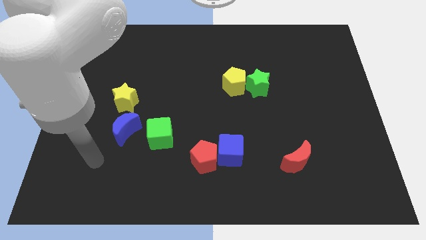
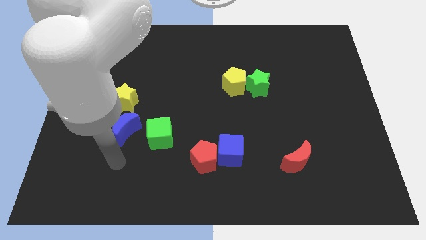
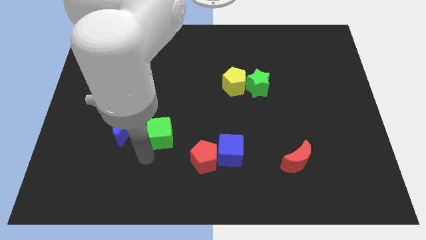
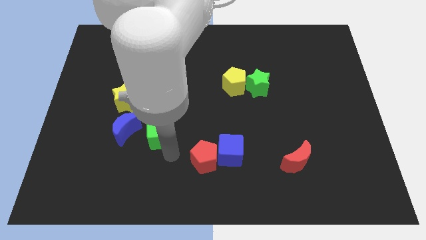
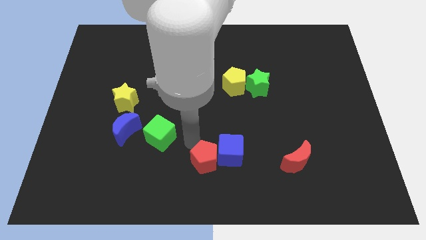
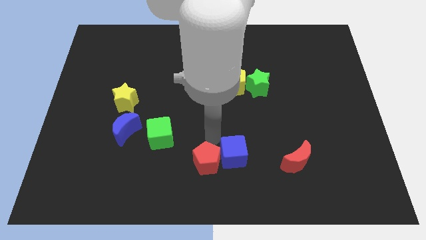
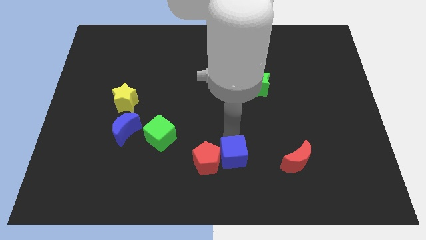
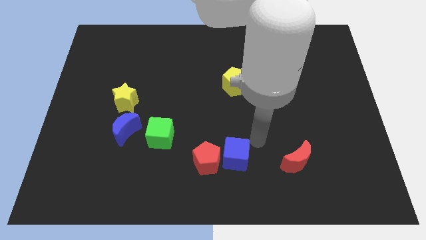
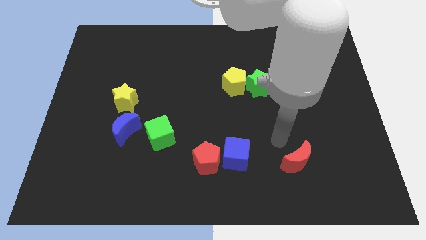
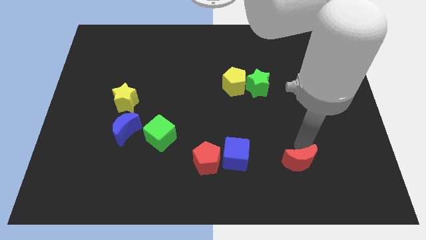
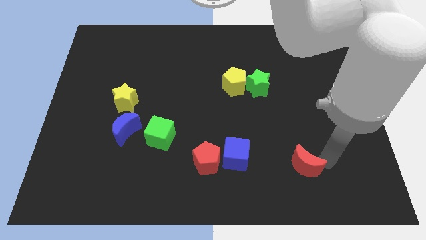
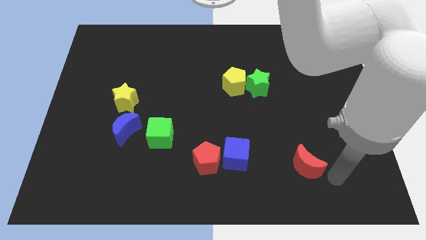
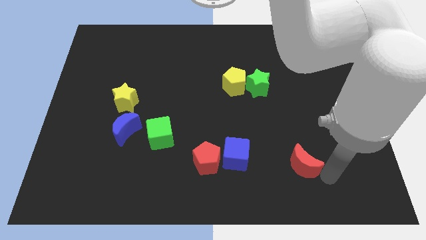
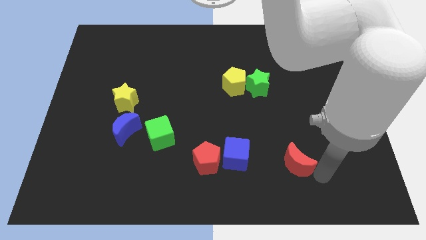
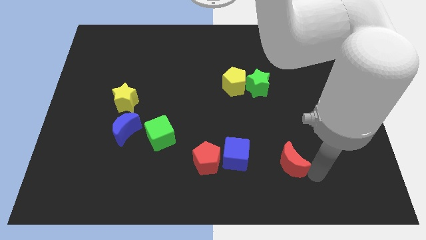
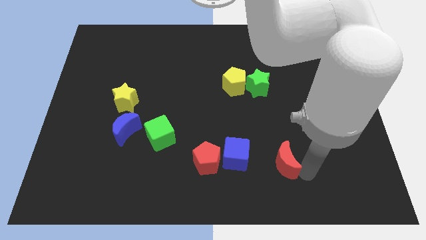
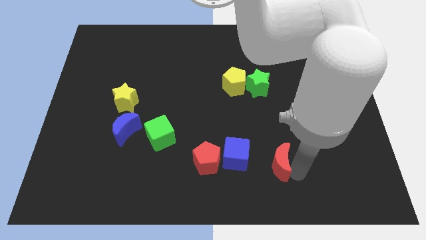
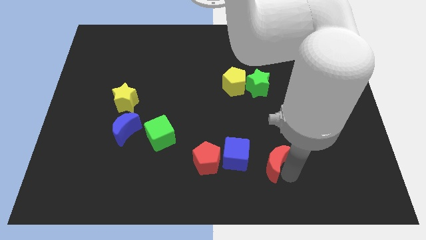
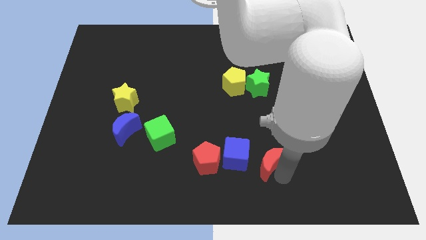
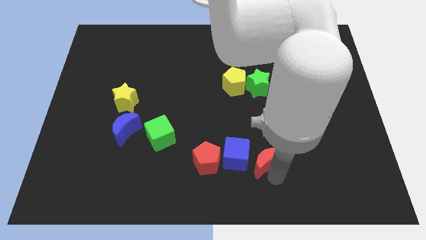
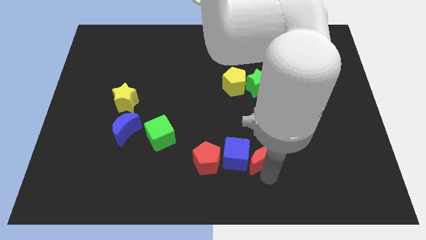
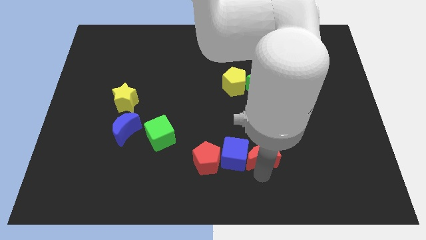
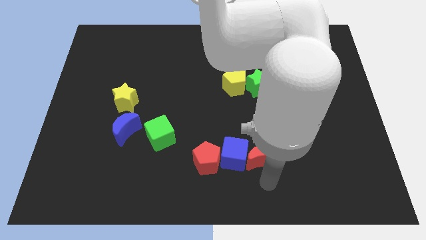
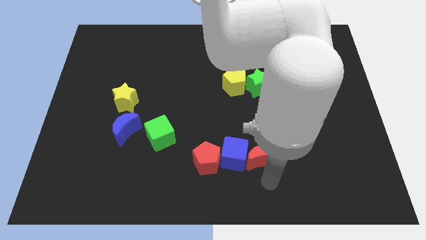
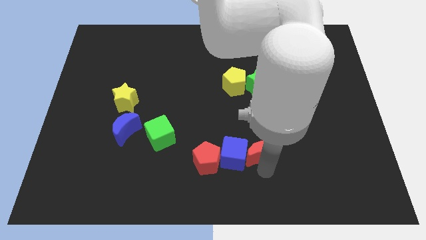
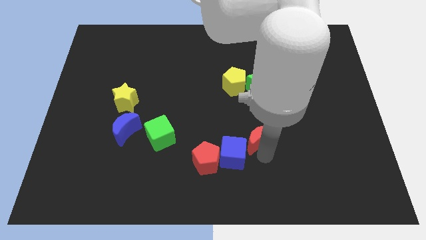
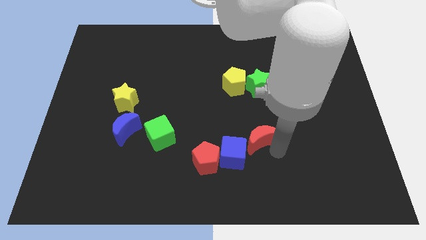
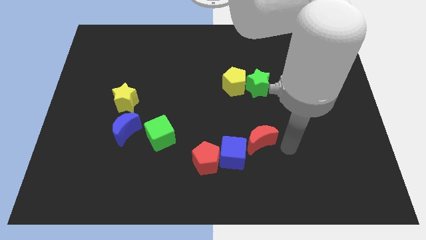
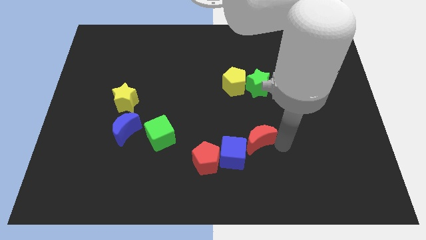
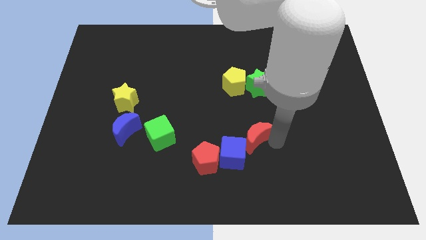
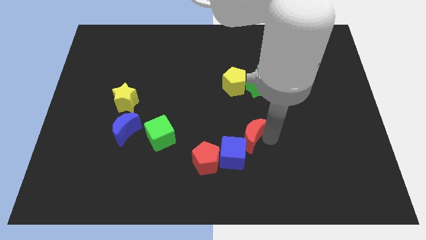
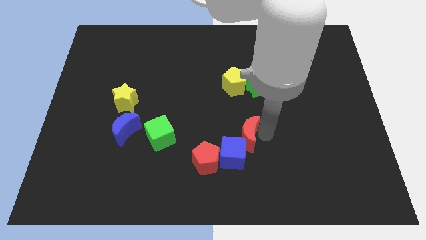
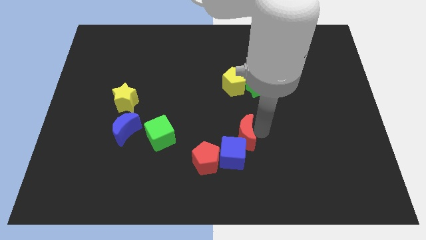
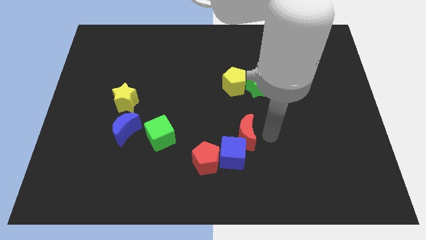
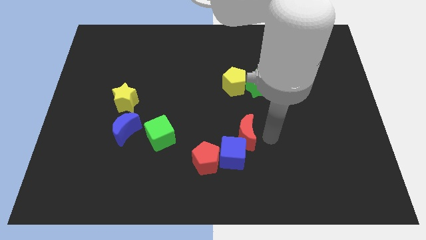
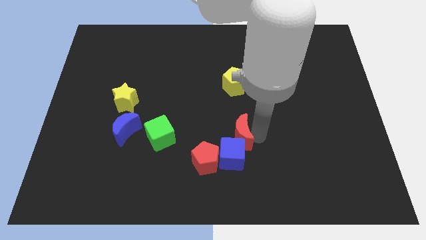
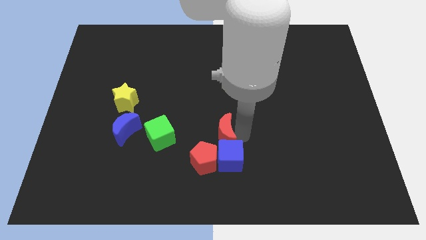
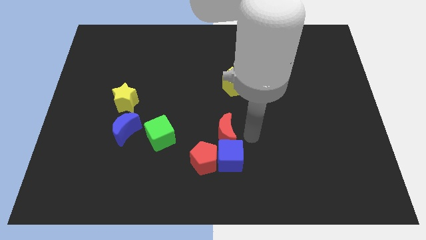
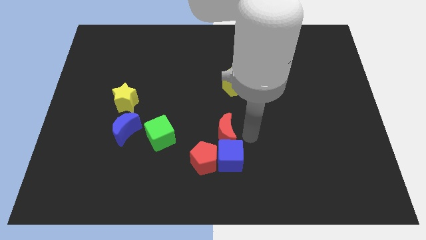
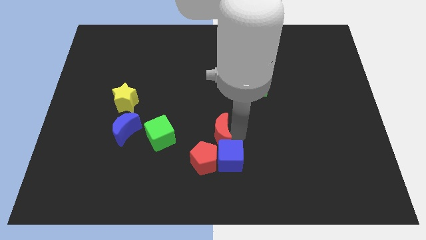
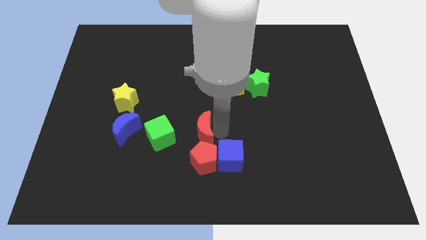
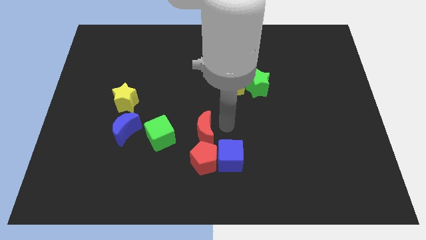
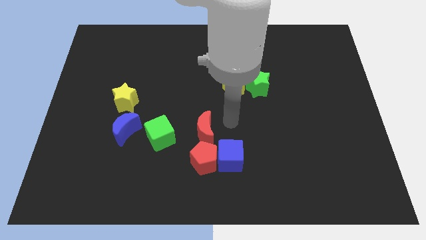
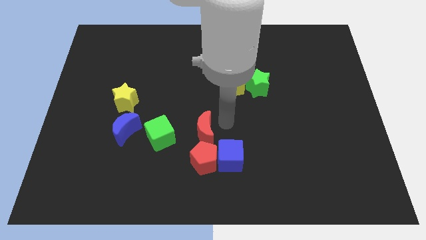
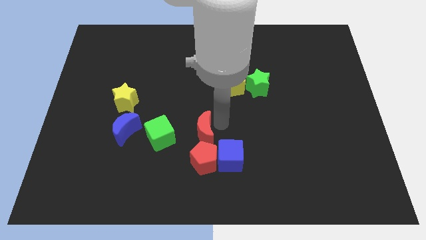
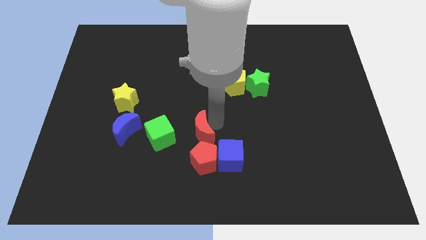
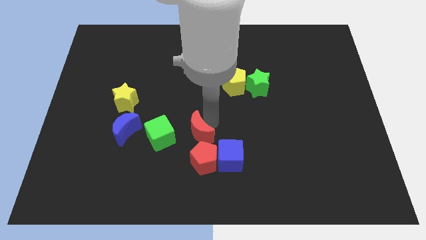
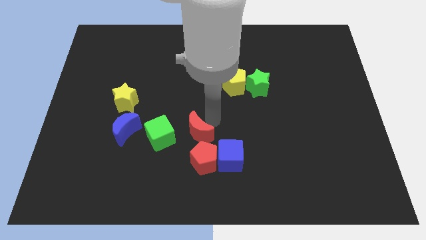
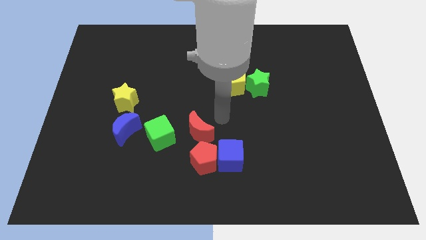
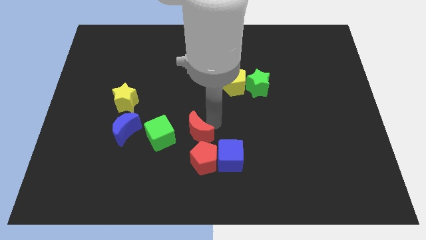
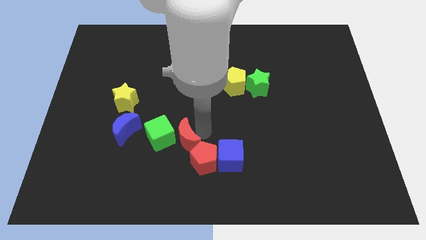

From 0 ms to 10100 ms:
move the red moon close to the green cube

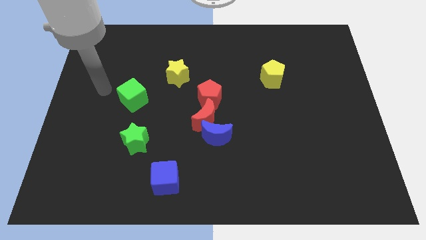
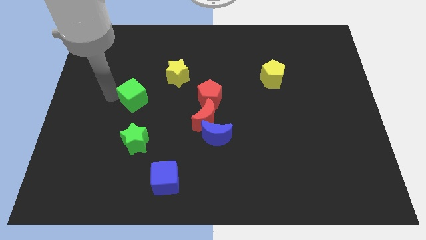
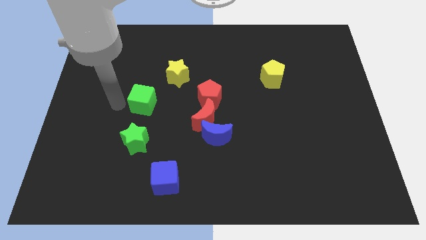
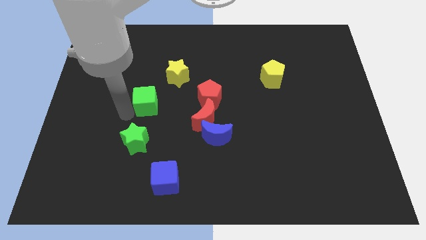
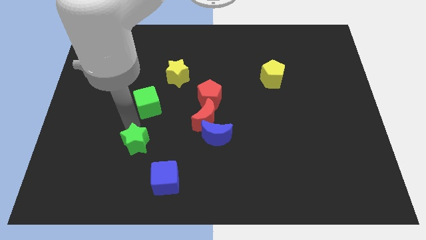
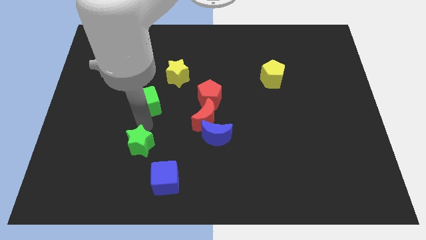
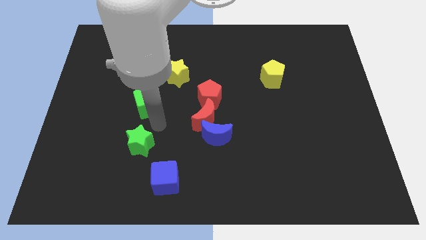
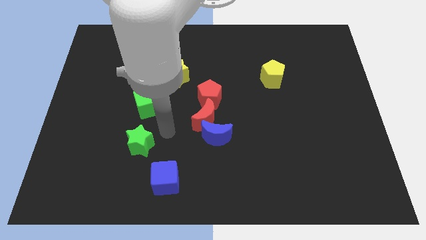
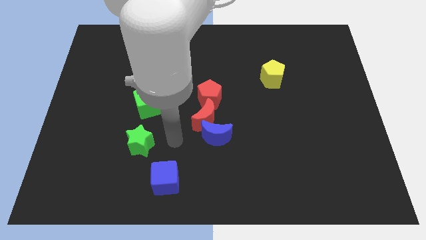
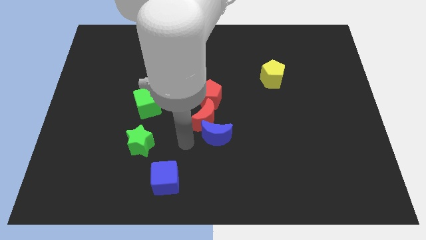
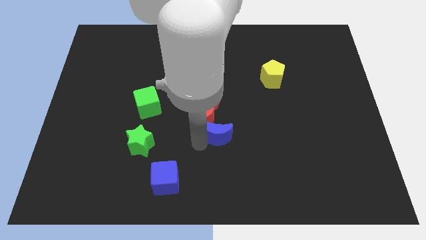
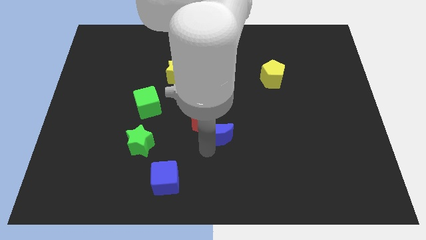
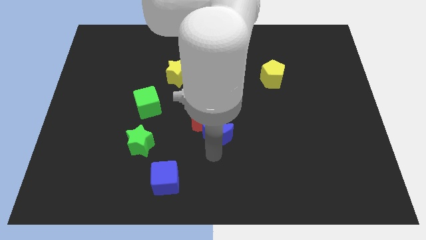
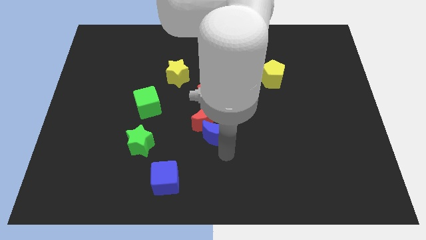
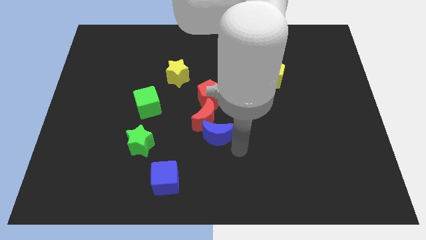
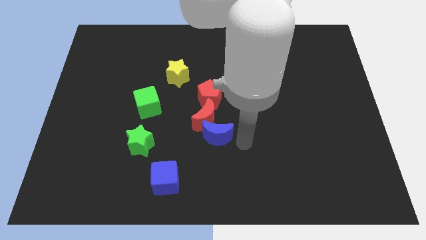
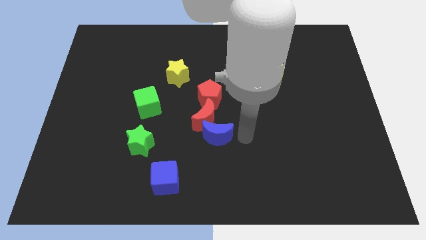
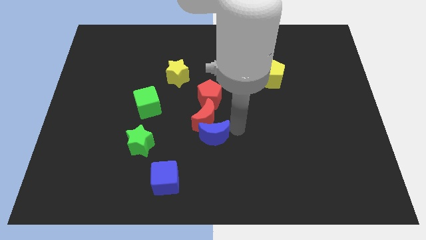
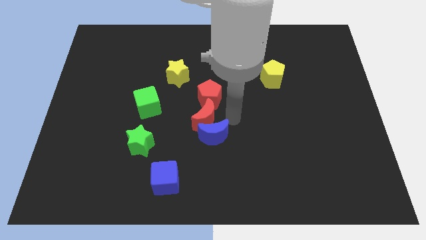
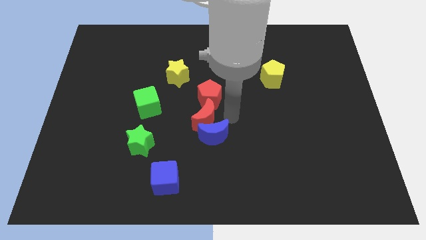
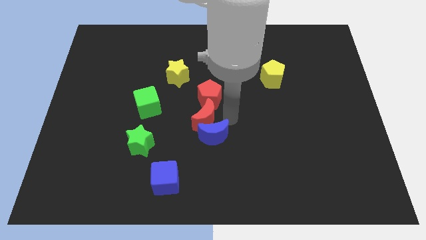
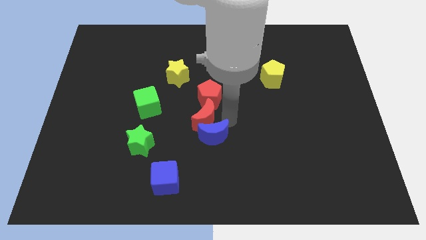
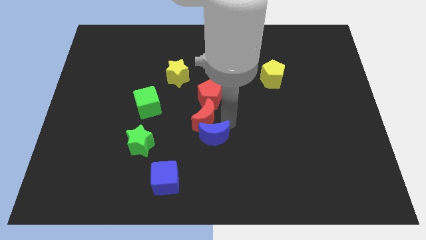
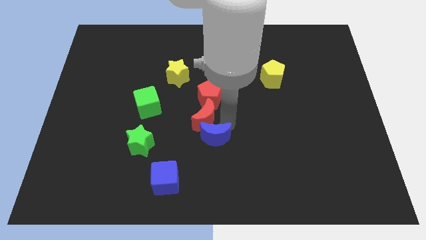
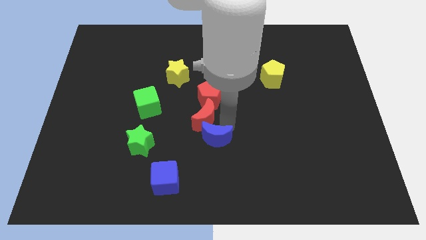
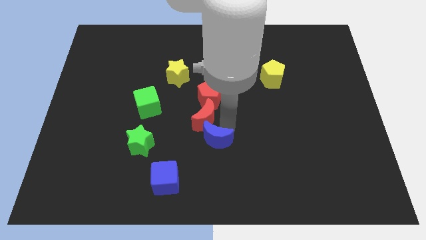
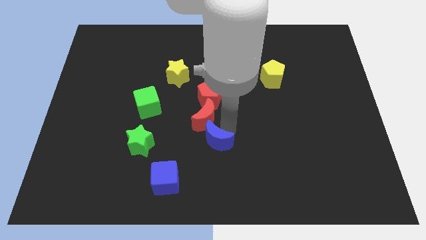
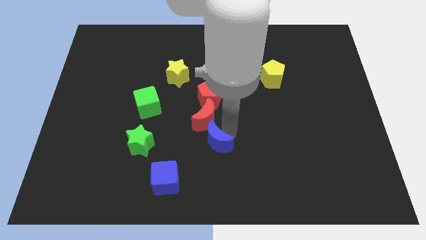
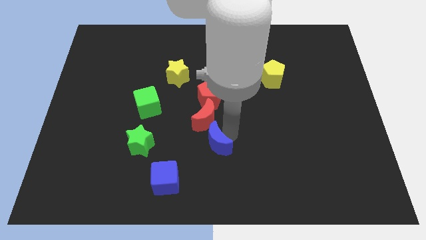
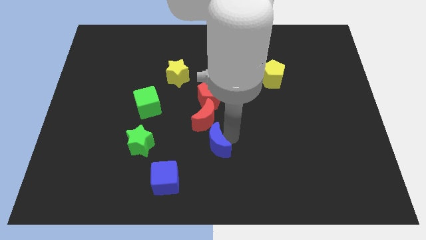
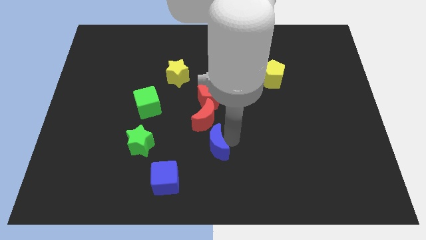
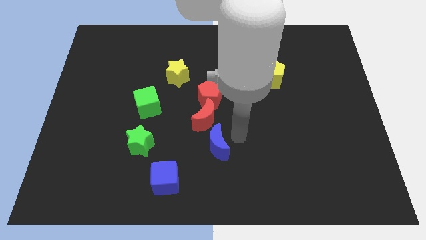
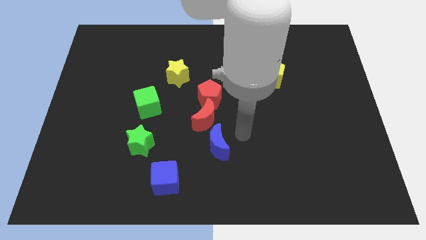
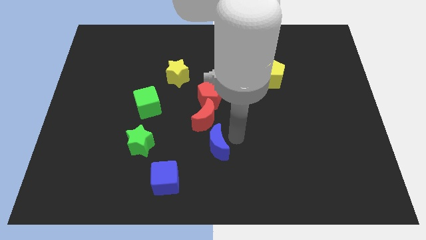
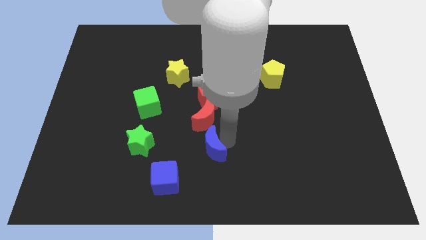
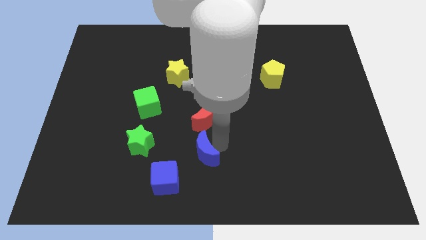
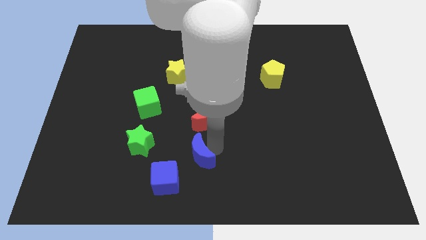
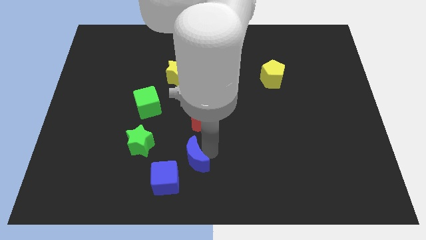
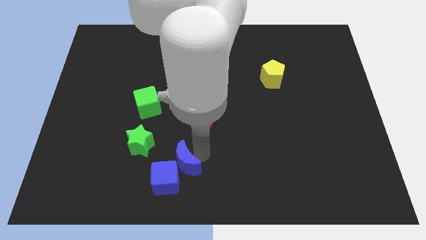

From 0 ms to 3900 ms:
move the blue moon next to the blue cube
